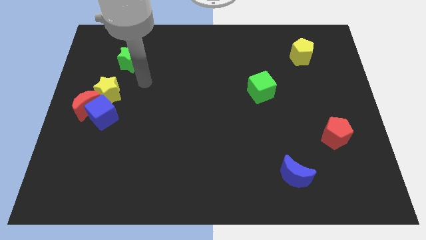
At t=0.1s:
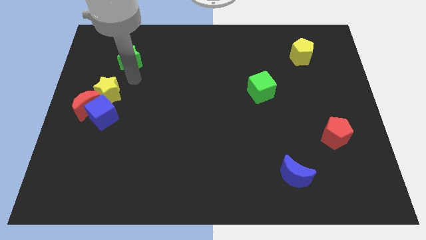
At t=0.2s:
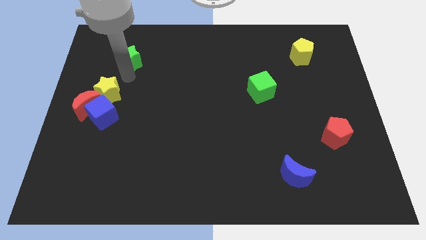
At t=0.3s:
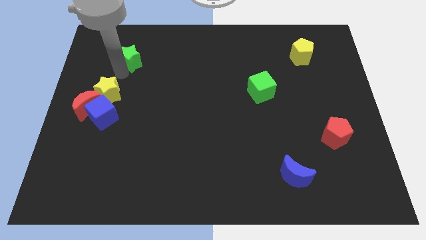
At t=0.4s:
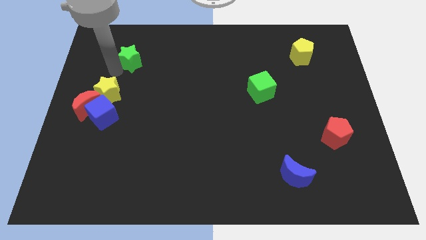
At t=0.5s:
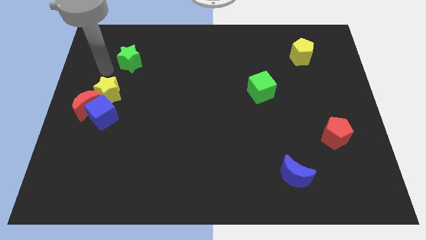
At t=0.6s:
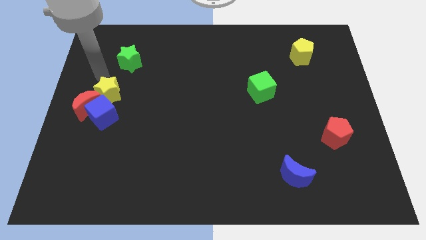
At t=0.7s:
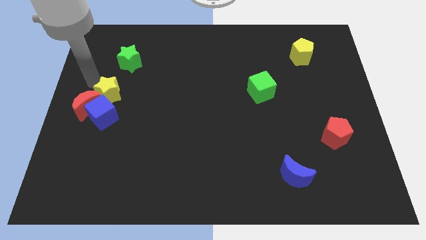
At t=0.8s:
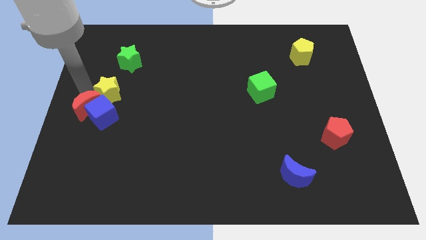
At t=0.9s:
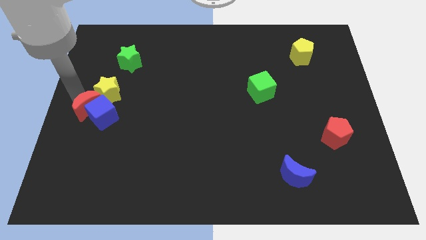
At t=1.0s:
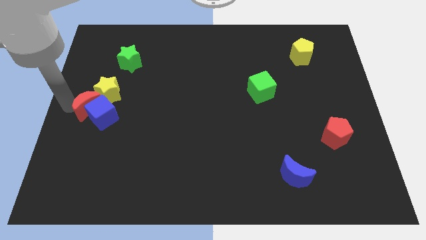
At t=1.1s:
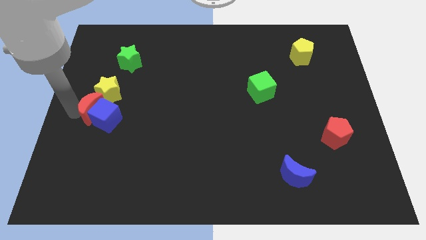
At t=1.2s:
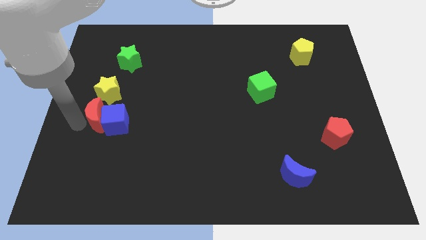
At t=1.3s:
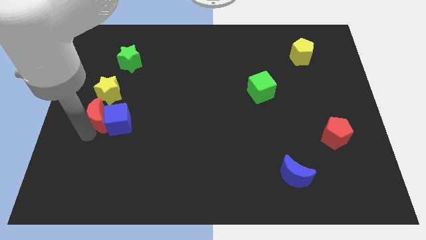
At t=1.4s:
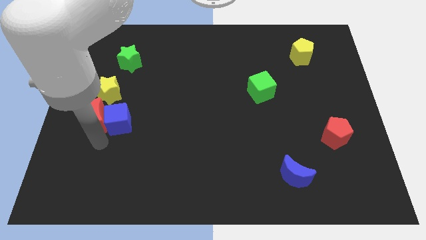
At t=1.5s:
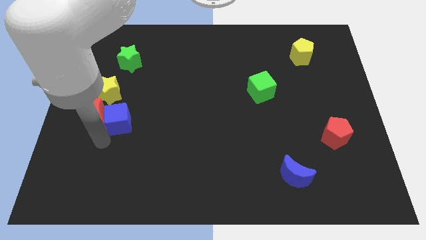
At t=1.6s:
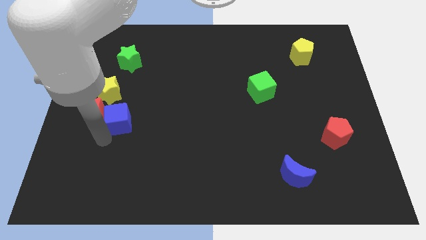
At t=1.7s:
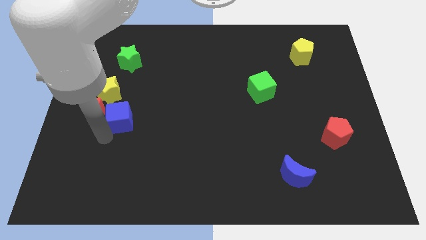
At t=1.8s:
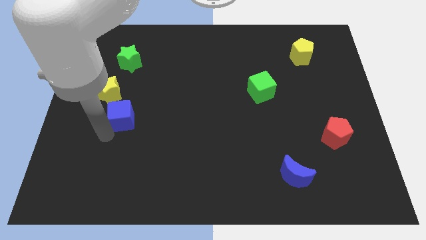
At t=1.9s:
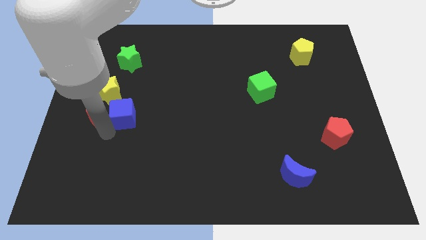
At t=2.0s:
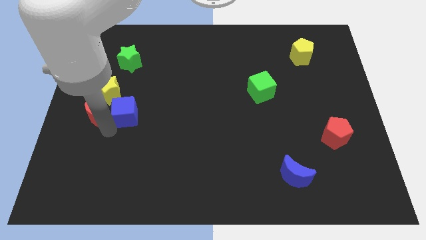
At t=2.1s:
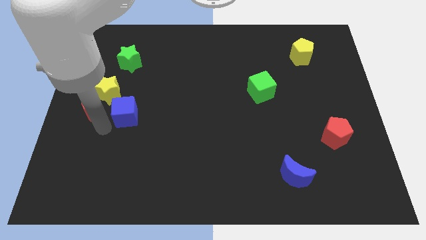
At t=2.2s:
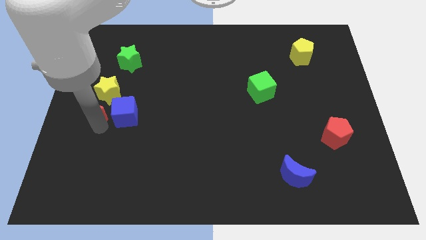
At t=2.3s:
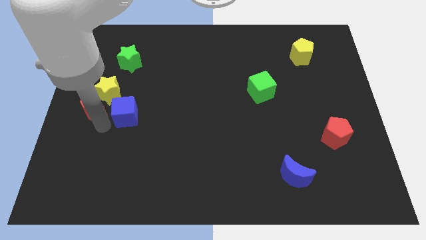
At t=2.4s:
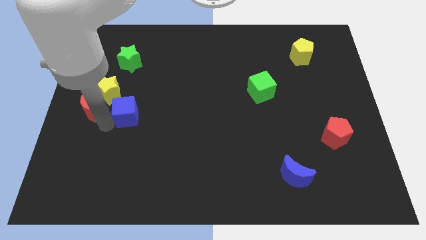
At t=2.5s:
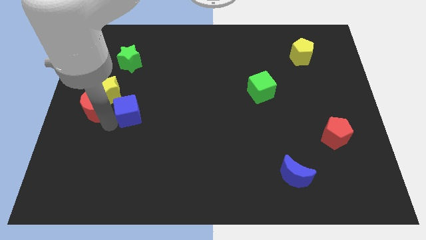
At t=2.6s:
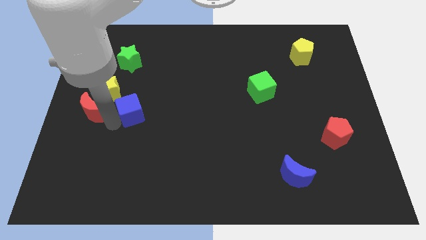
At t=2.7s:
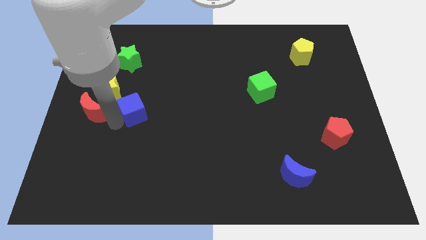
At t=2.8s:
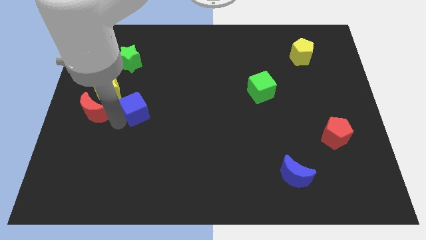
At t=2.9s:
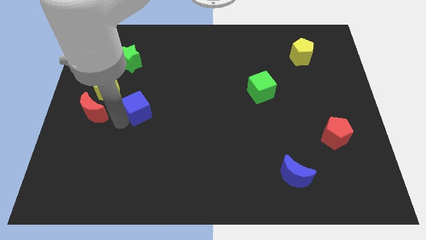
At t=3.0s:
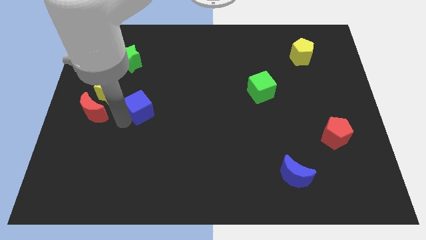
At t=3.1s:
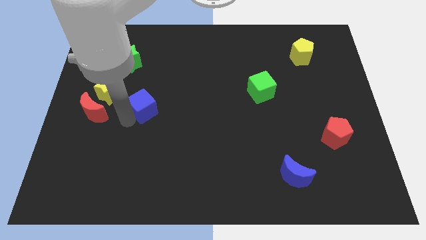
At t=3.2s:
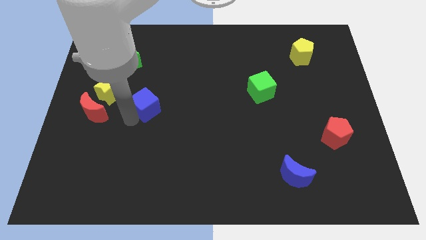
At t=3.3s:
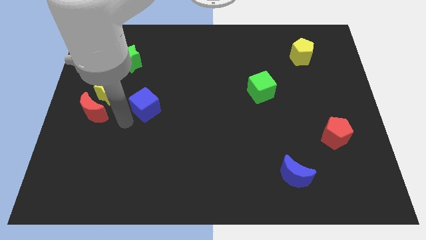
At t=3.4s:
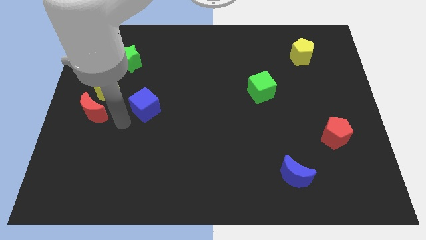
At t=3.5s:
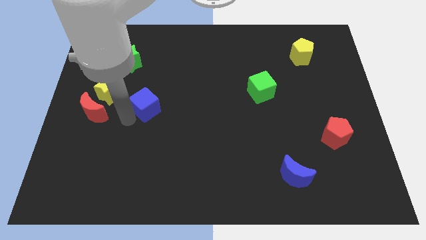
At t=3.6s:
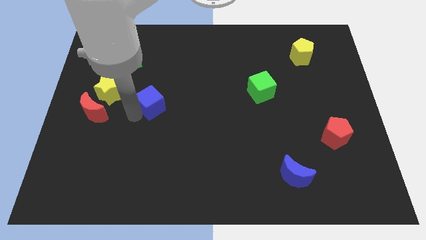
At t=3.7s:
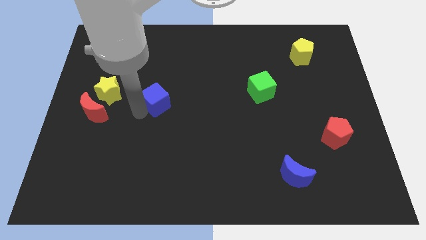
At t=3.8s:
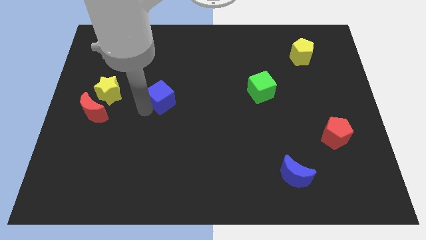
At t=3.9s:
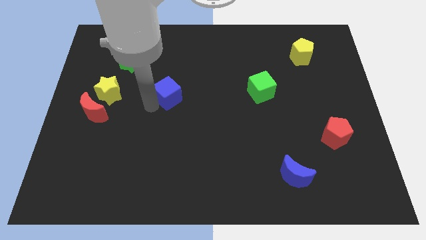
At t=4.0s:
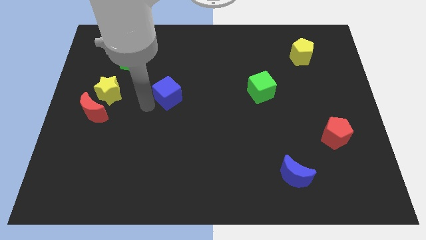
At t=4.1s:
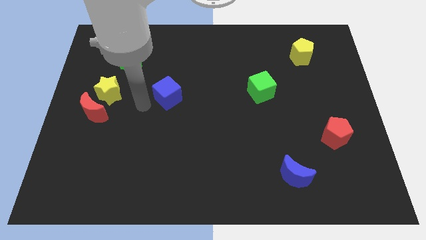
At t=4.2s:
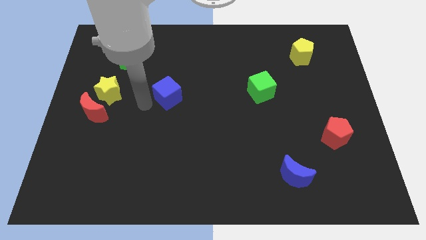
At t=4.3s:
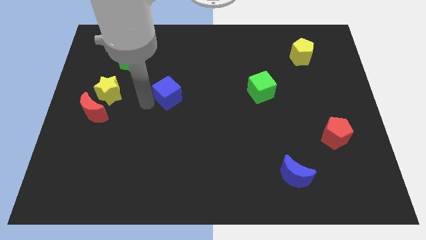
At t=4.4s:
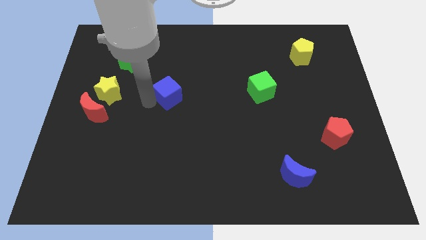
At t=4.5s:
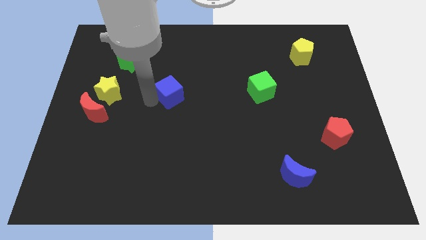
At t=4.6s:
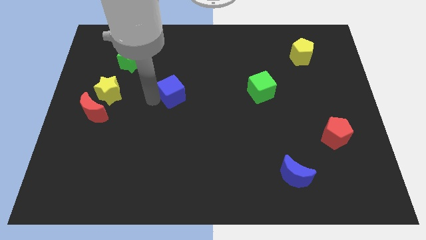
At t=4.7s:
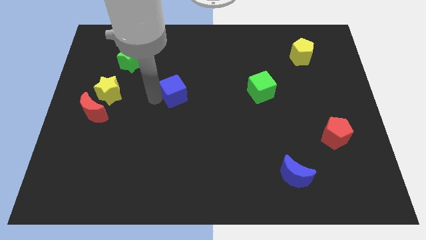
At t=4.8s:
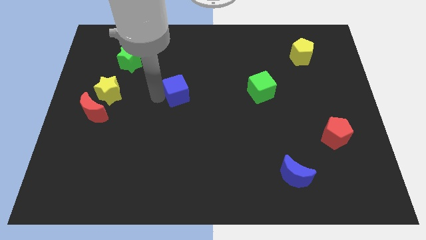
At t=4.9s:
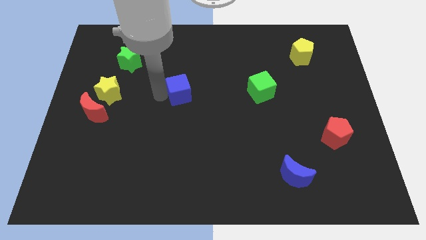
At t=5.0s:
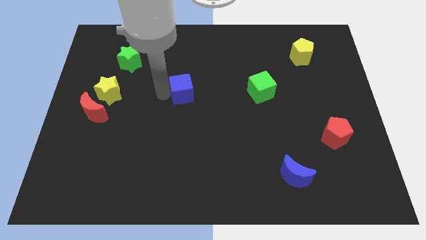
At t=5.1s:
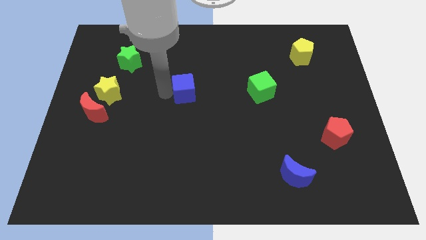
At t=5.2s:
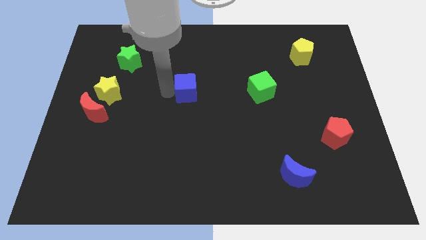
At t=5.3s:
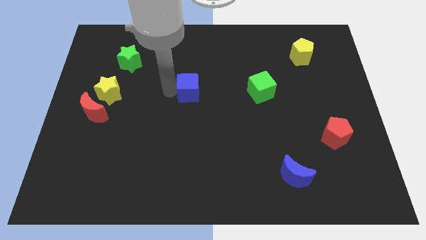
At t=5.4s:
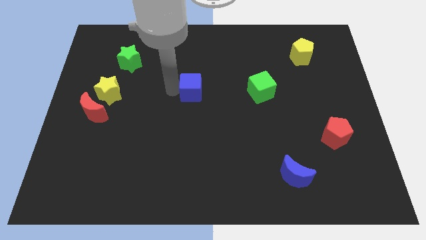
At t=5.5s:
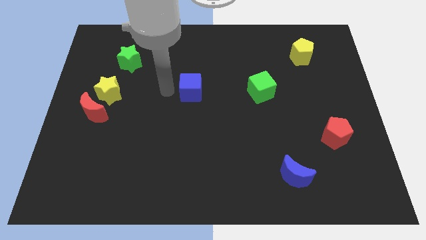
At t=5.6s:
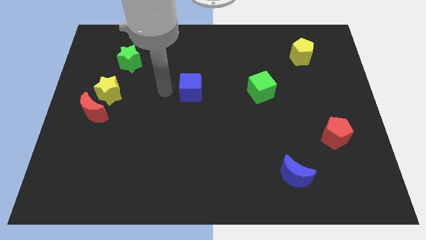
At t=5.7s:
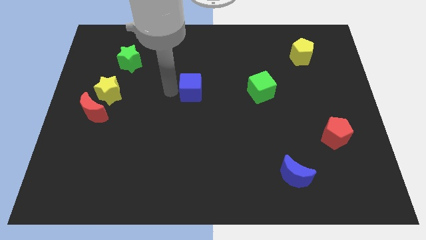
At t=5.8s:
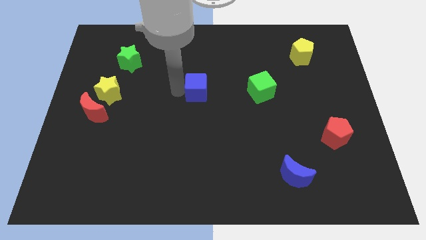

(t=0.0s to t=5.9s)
slide the blue cube just left of the green cube
